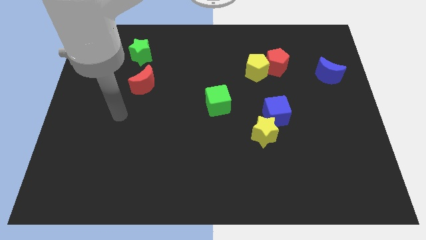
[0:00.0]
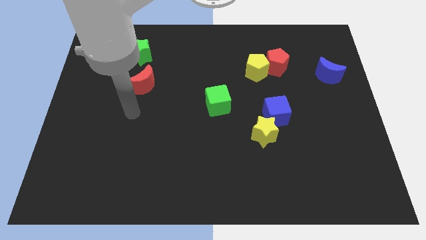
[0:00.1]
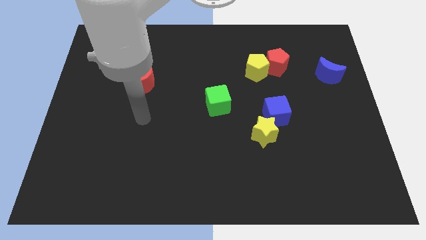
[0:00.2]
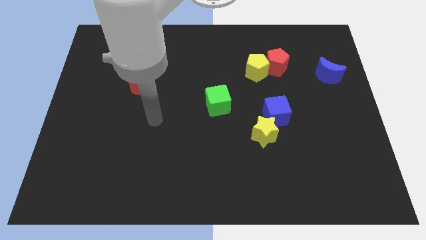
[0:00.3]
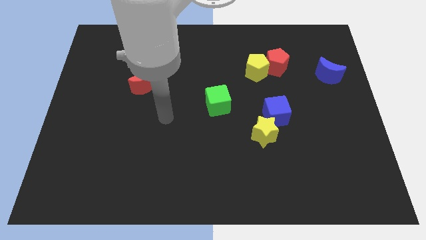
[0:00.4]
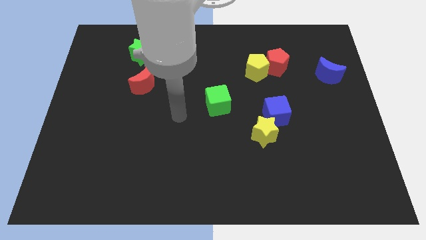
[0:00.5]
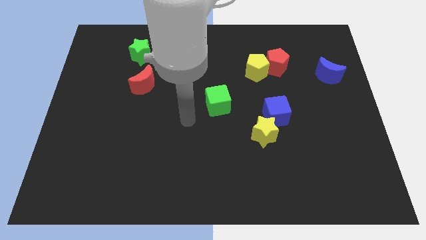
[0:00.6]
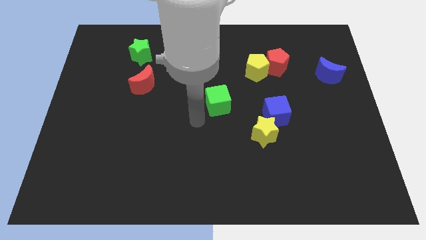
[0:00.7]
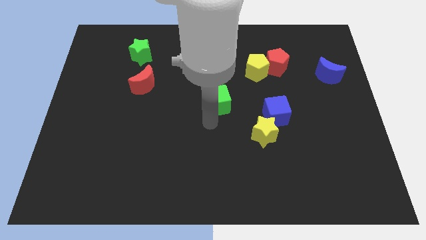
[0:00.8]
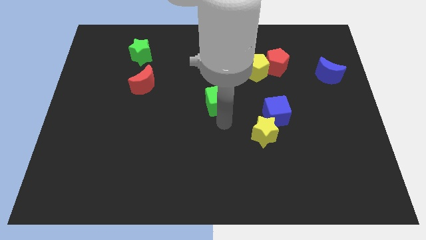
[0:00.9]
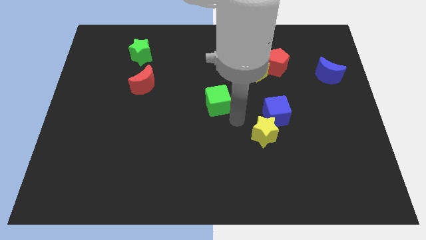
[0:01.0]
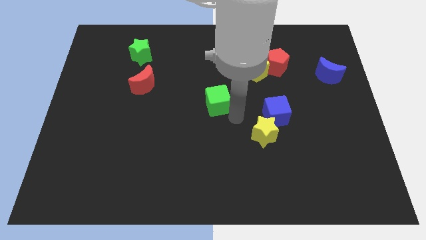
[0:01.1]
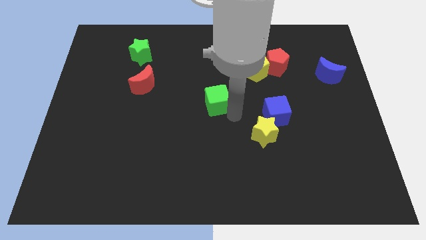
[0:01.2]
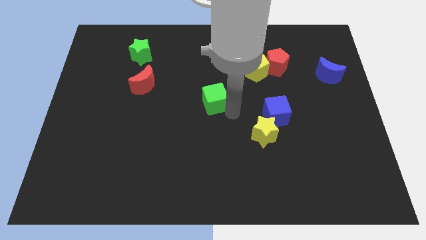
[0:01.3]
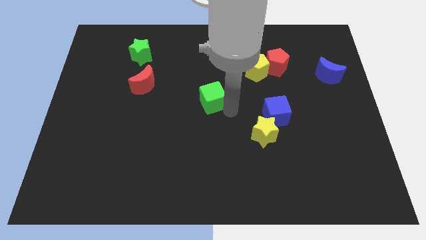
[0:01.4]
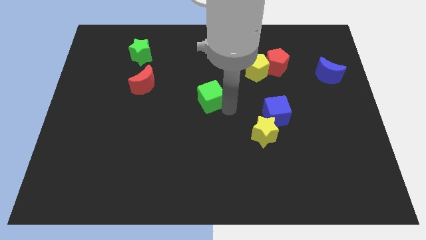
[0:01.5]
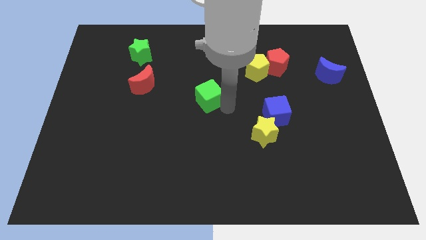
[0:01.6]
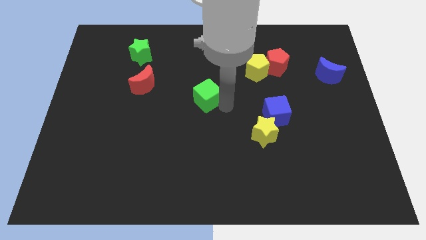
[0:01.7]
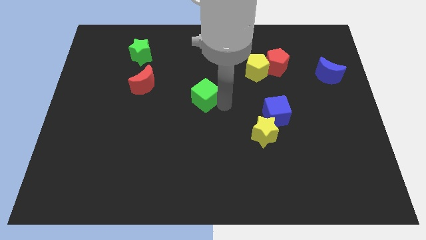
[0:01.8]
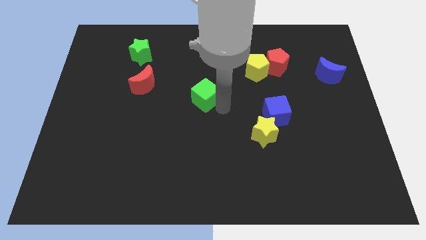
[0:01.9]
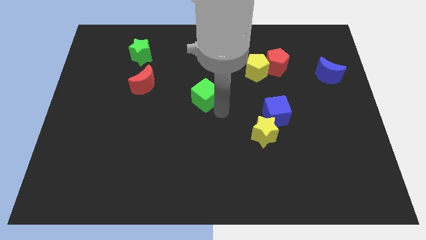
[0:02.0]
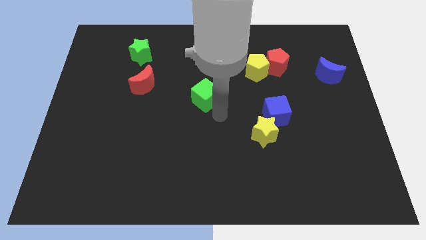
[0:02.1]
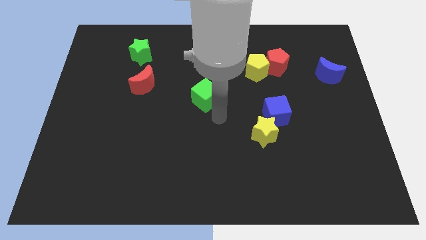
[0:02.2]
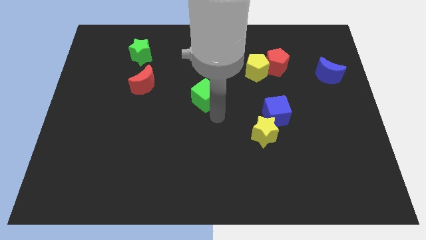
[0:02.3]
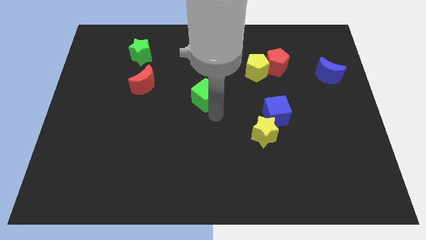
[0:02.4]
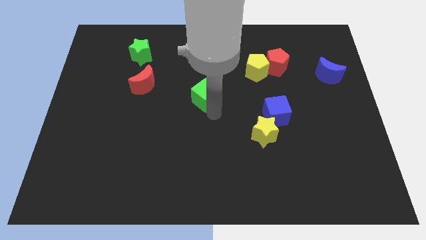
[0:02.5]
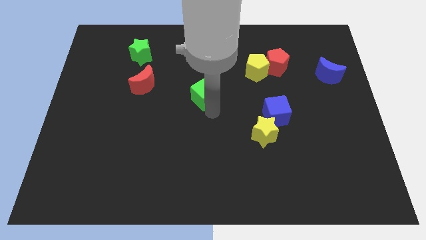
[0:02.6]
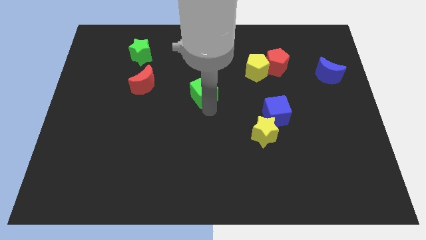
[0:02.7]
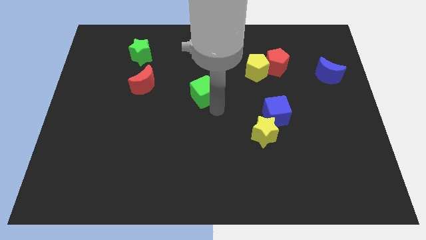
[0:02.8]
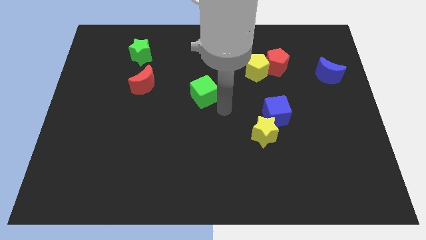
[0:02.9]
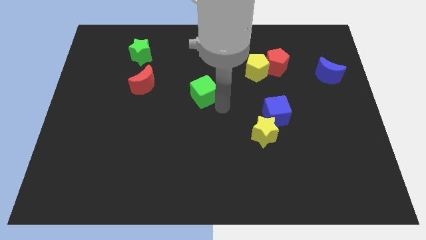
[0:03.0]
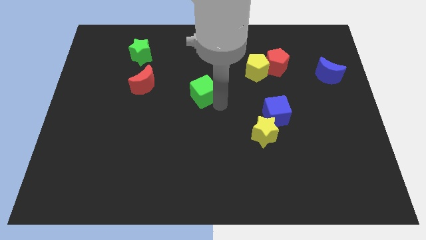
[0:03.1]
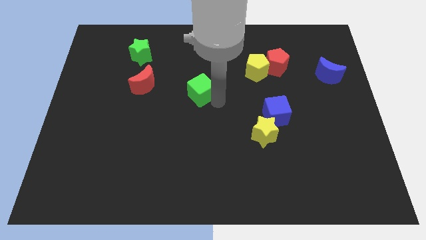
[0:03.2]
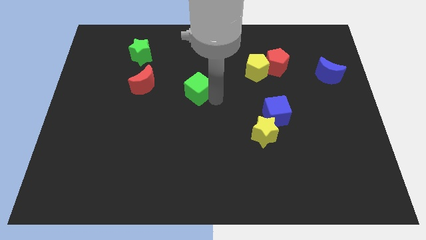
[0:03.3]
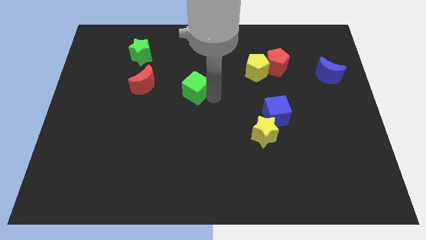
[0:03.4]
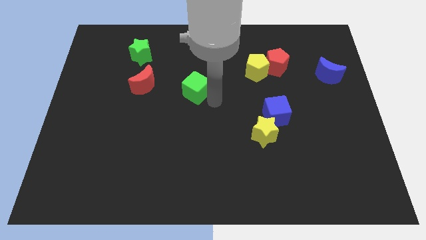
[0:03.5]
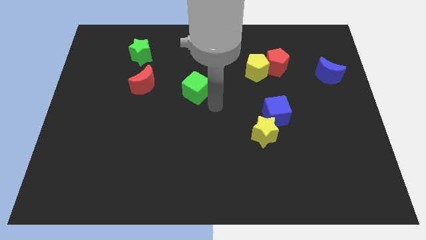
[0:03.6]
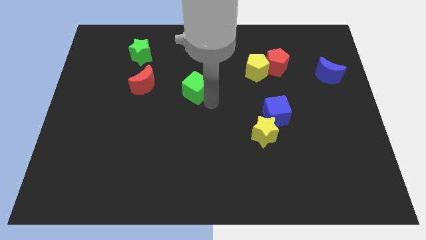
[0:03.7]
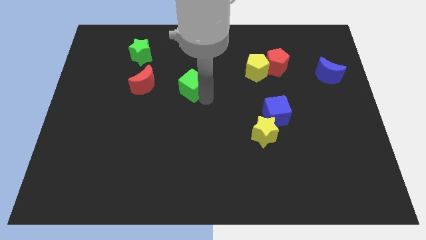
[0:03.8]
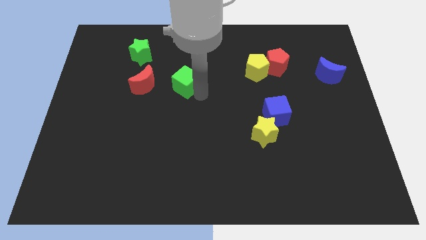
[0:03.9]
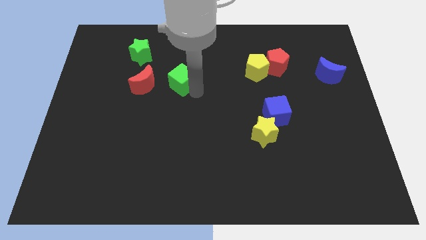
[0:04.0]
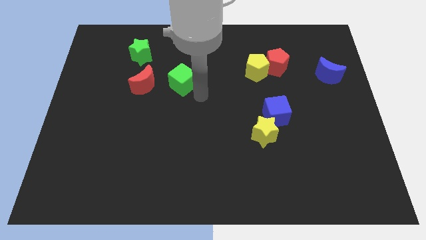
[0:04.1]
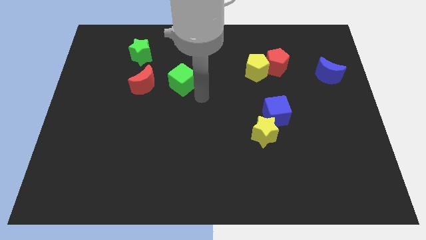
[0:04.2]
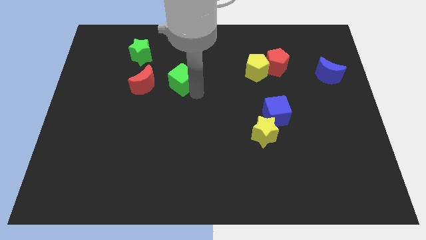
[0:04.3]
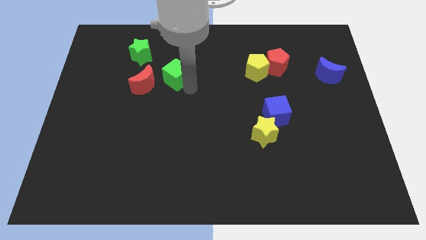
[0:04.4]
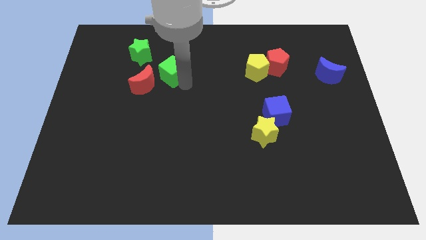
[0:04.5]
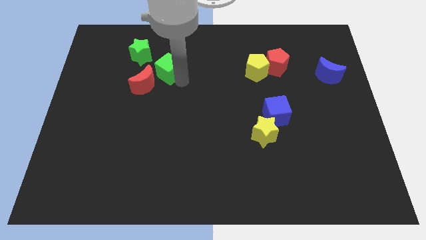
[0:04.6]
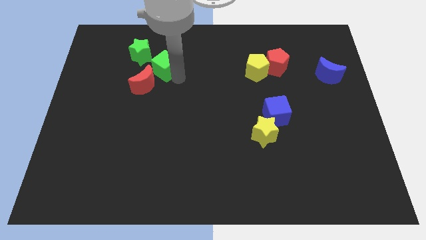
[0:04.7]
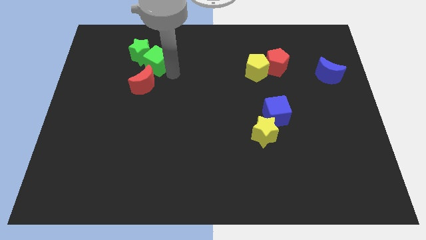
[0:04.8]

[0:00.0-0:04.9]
push the green cube close to the green star

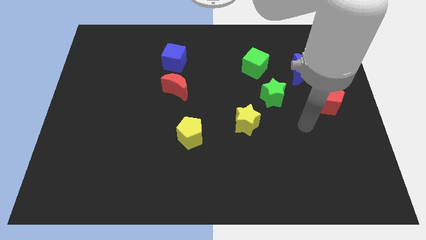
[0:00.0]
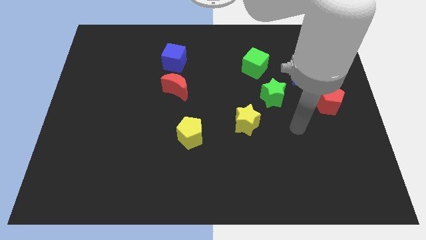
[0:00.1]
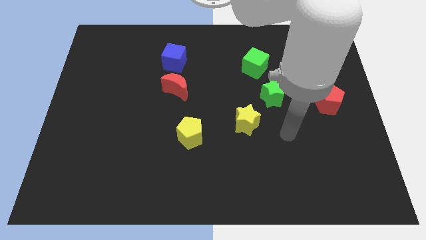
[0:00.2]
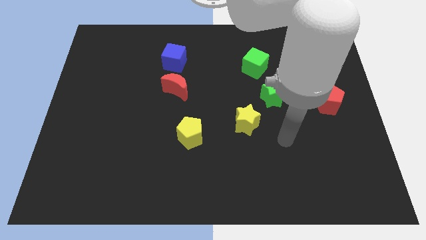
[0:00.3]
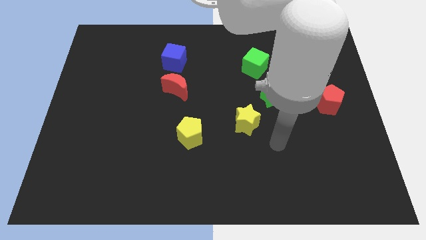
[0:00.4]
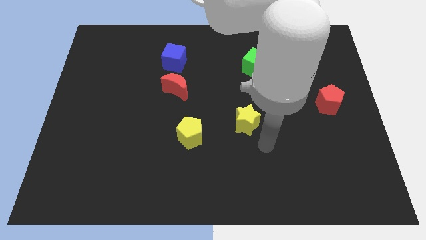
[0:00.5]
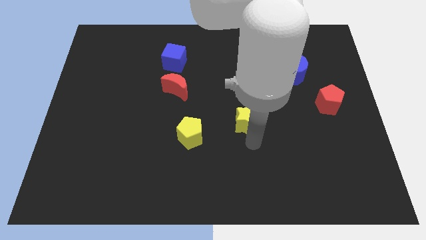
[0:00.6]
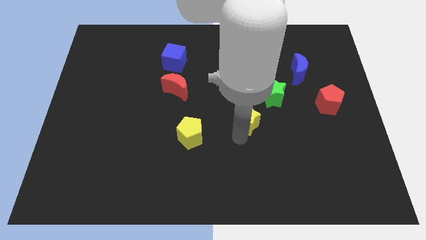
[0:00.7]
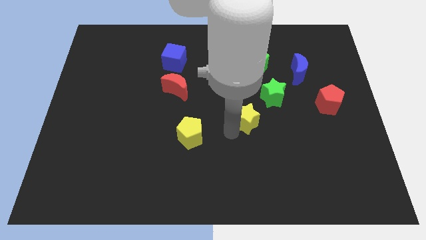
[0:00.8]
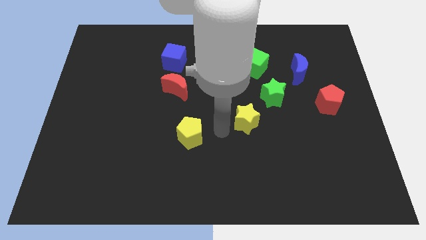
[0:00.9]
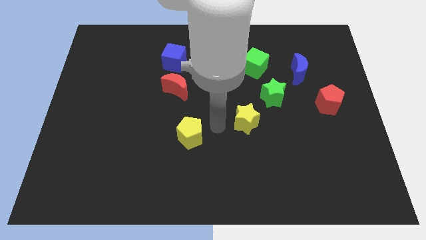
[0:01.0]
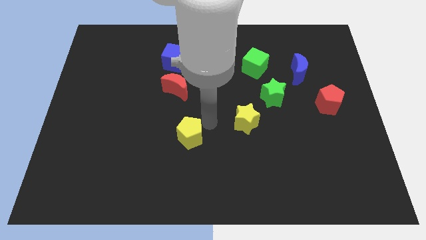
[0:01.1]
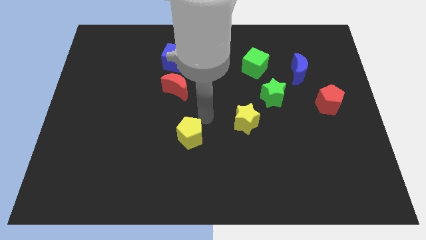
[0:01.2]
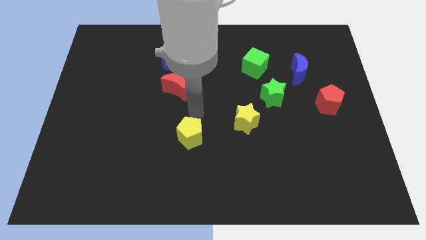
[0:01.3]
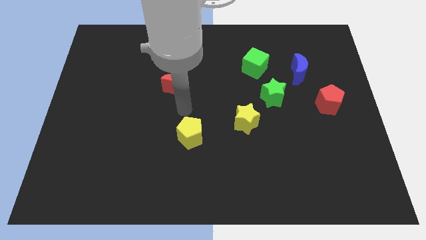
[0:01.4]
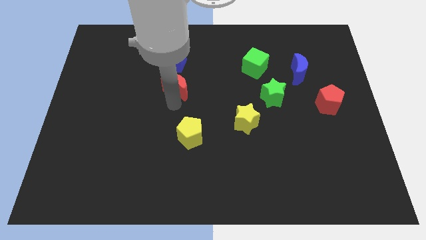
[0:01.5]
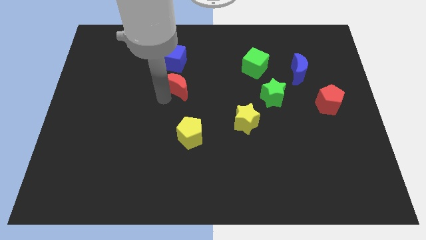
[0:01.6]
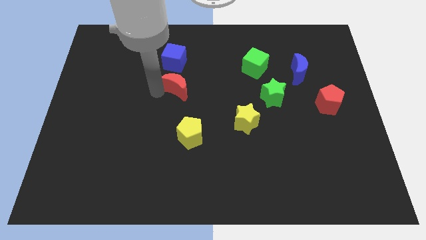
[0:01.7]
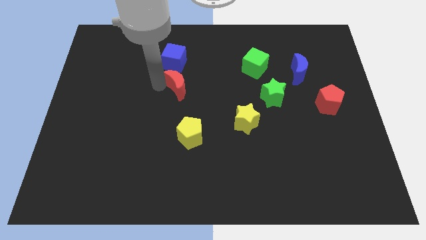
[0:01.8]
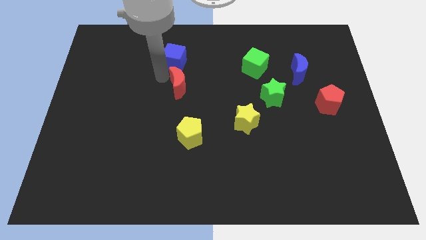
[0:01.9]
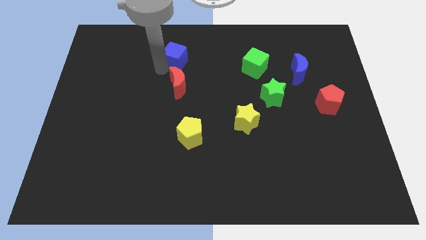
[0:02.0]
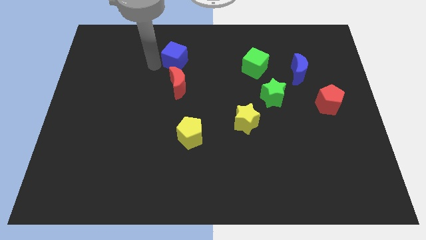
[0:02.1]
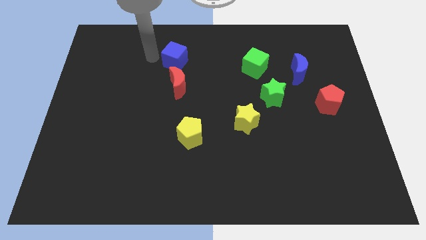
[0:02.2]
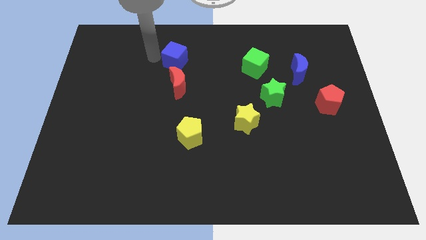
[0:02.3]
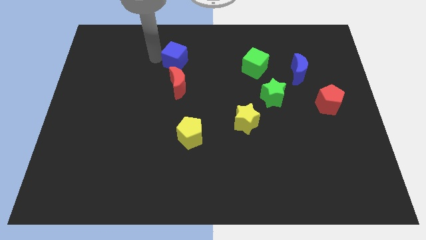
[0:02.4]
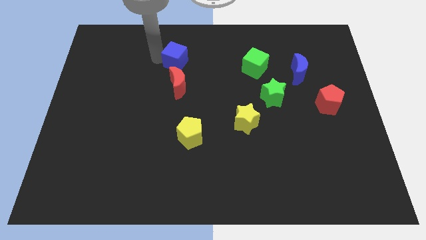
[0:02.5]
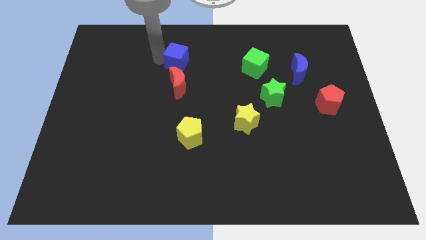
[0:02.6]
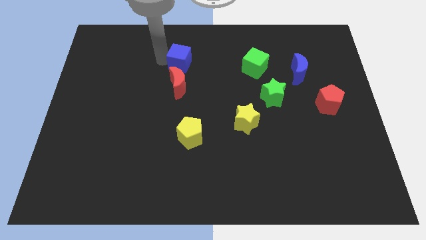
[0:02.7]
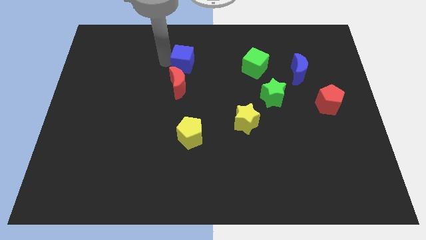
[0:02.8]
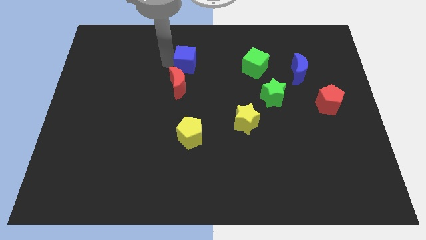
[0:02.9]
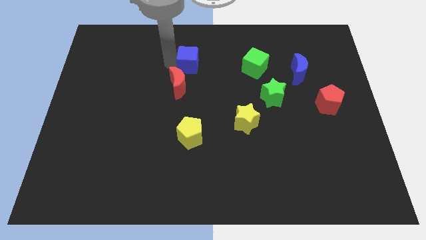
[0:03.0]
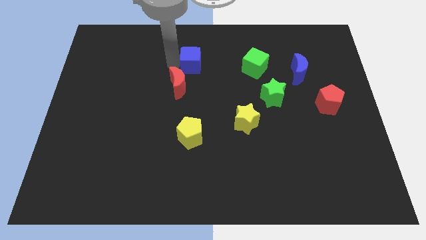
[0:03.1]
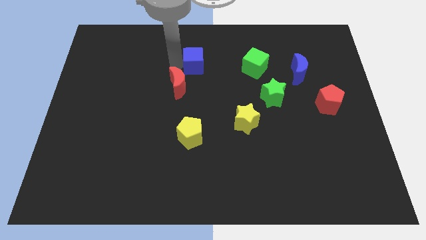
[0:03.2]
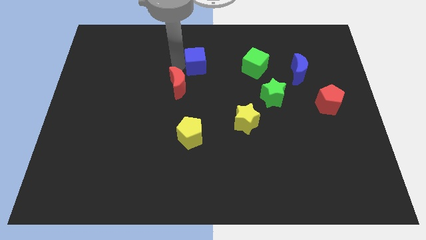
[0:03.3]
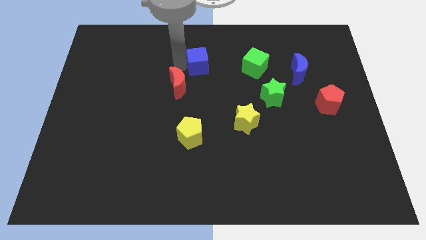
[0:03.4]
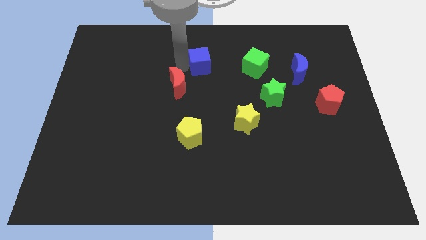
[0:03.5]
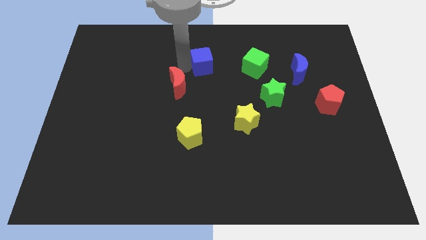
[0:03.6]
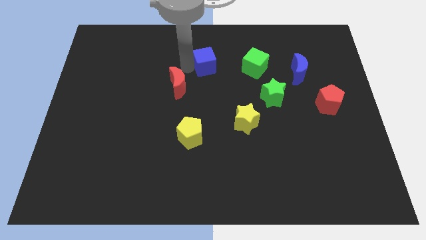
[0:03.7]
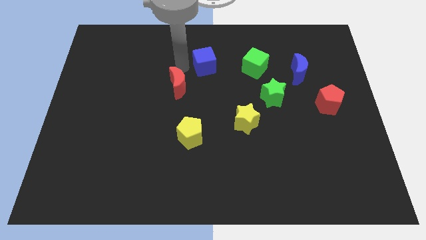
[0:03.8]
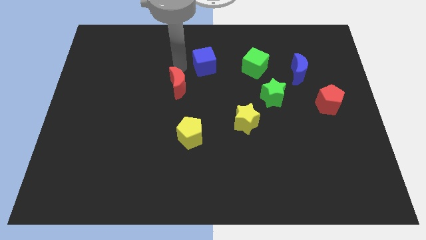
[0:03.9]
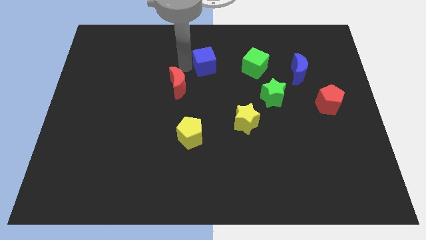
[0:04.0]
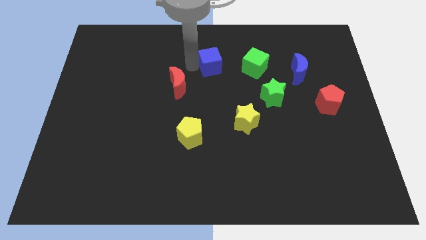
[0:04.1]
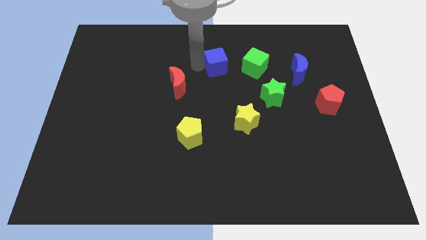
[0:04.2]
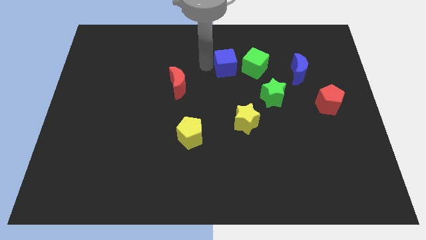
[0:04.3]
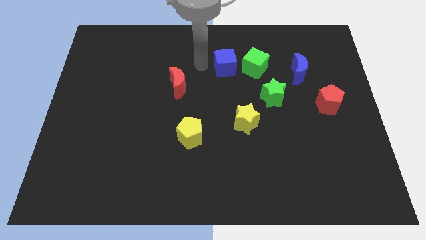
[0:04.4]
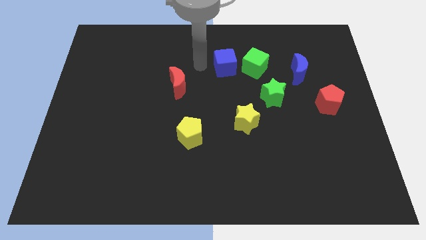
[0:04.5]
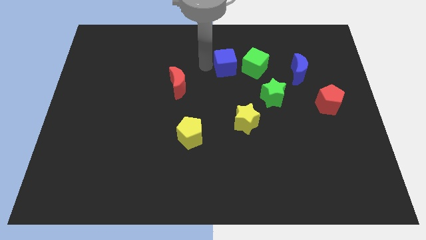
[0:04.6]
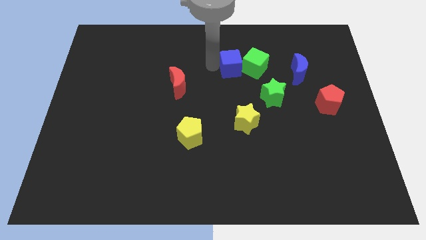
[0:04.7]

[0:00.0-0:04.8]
put the blue cube next to the green cube
